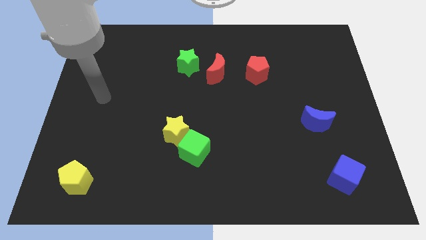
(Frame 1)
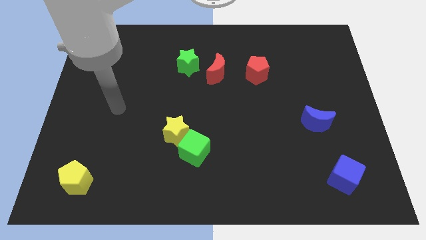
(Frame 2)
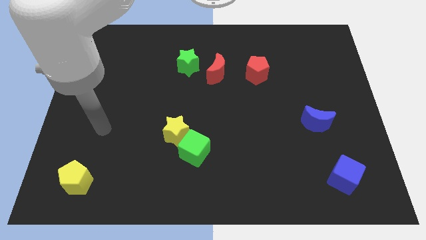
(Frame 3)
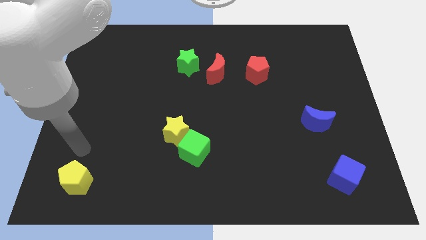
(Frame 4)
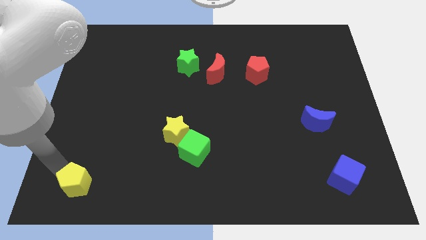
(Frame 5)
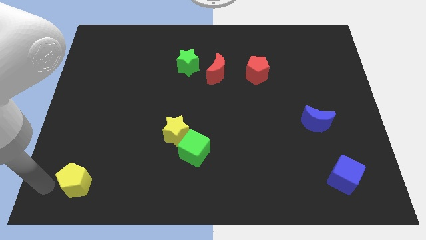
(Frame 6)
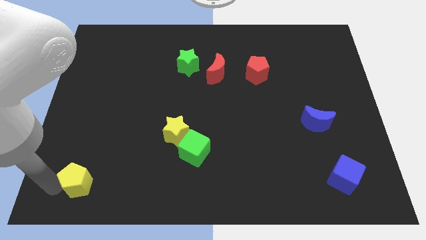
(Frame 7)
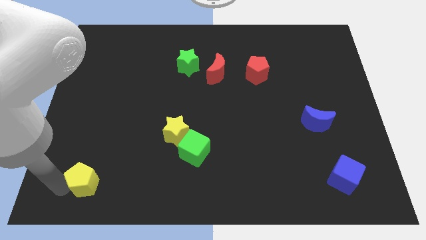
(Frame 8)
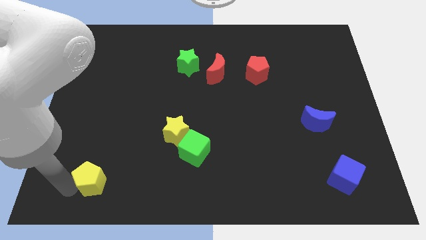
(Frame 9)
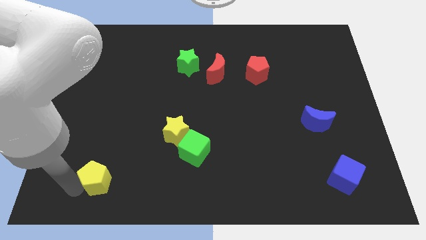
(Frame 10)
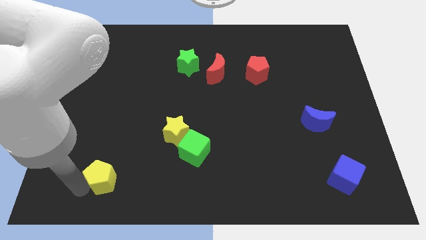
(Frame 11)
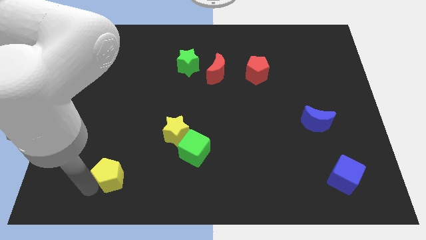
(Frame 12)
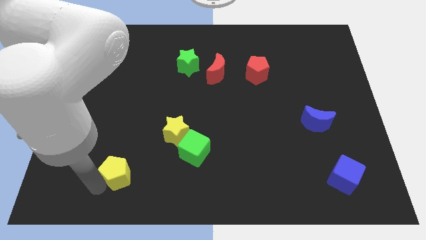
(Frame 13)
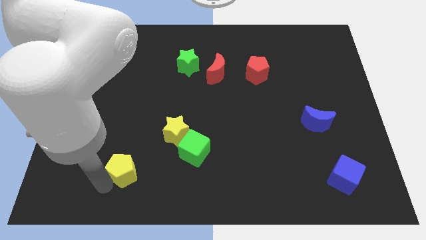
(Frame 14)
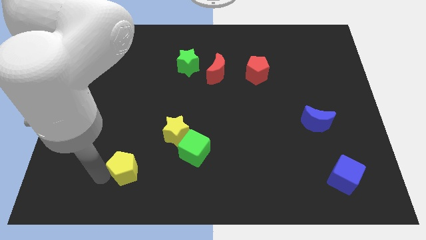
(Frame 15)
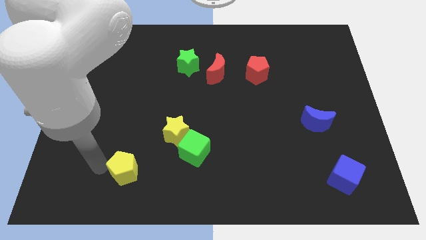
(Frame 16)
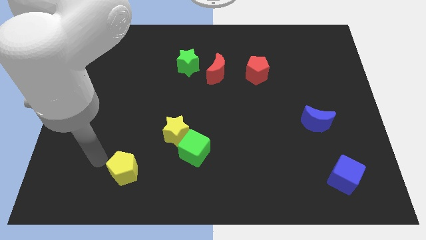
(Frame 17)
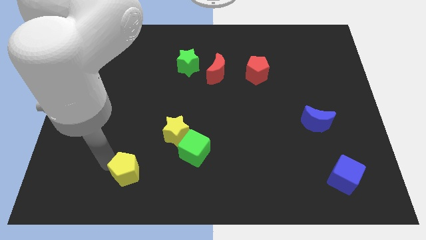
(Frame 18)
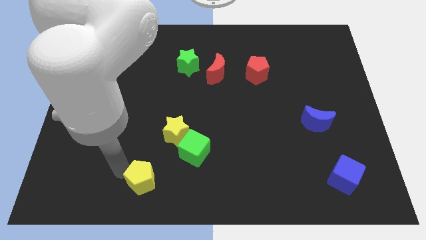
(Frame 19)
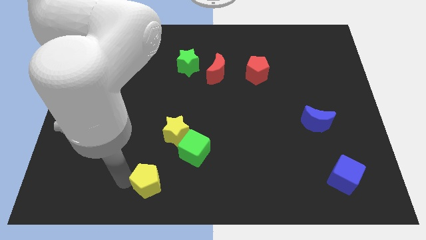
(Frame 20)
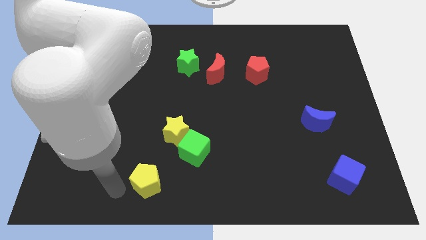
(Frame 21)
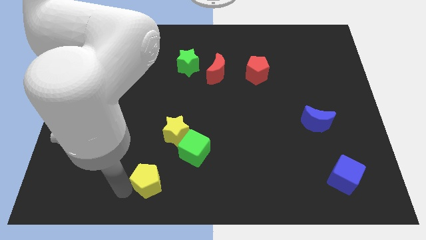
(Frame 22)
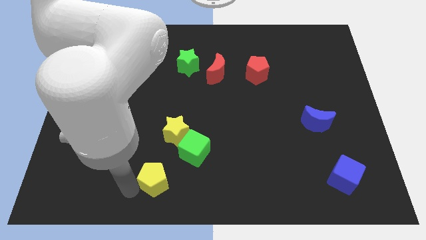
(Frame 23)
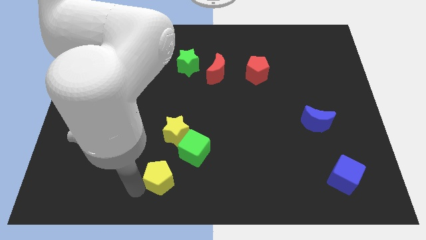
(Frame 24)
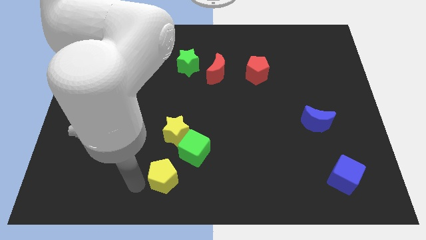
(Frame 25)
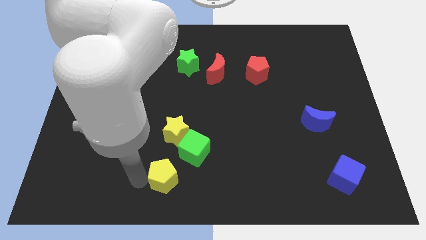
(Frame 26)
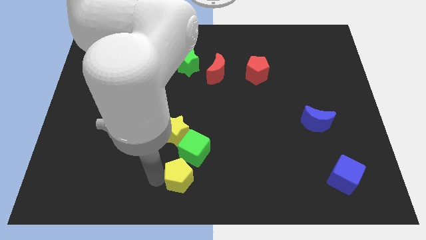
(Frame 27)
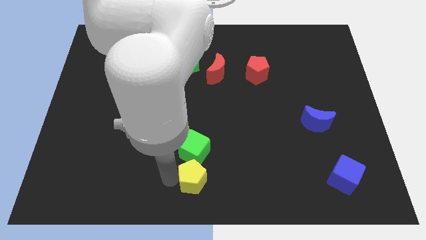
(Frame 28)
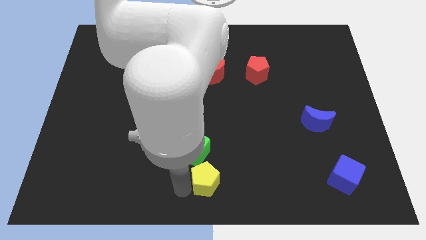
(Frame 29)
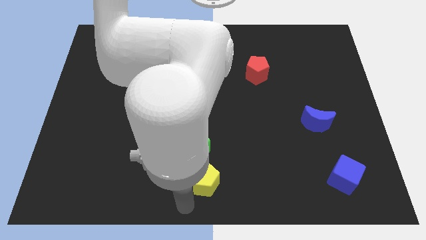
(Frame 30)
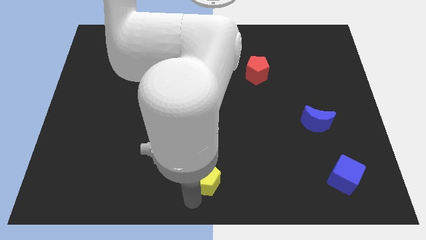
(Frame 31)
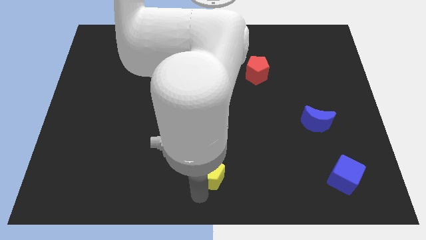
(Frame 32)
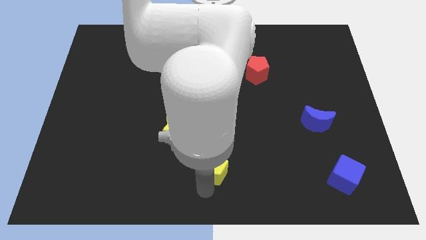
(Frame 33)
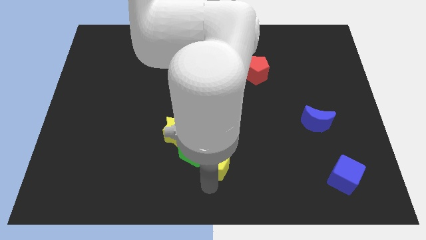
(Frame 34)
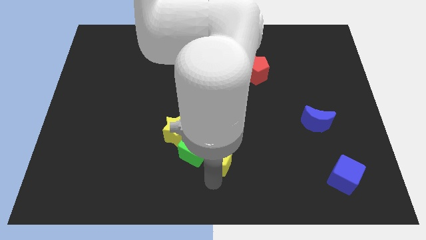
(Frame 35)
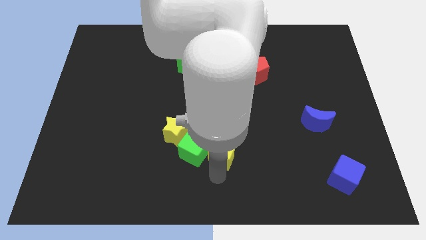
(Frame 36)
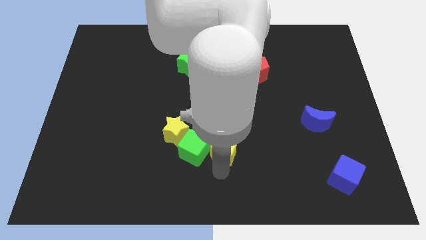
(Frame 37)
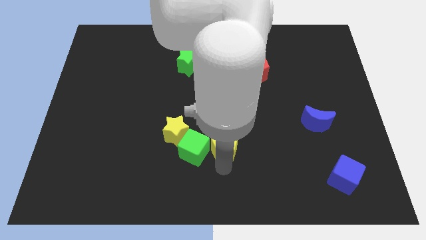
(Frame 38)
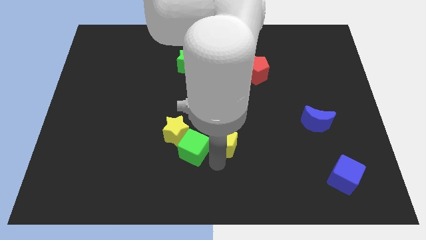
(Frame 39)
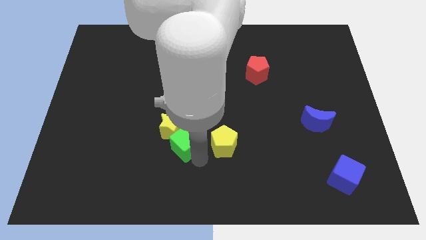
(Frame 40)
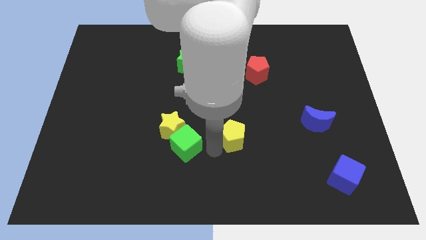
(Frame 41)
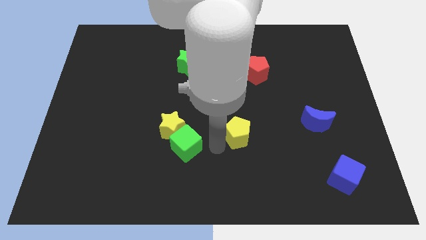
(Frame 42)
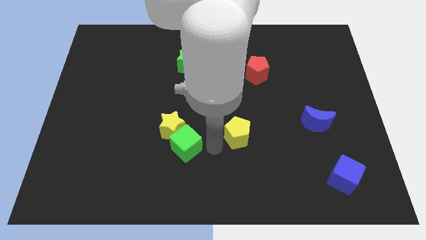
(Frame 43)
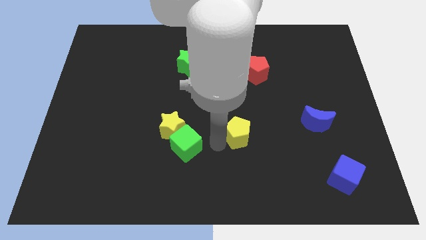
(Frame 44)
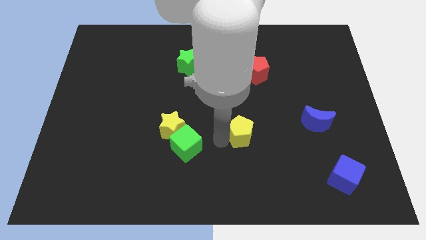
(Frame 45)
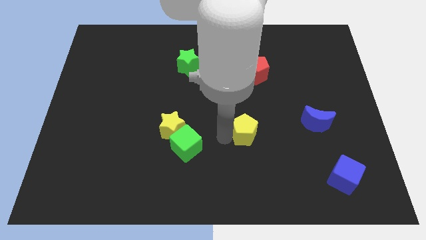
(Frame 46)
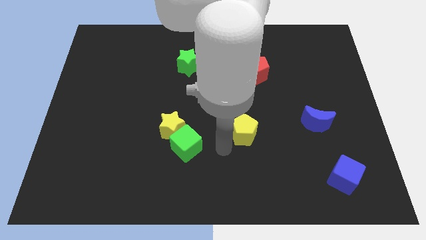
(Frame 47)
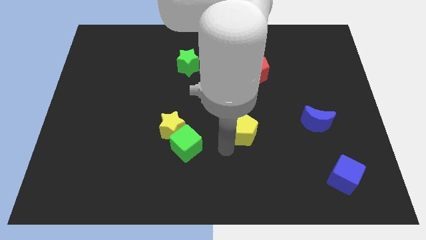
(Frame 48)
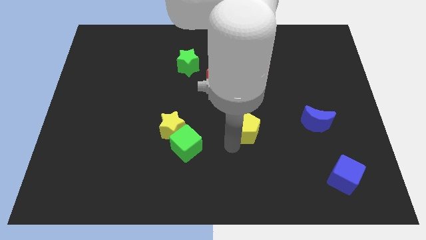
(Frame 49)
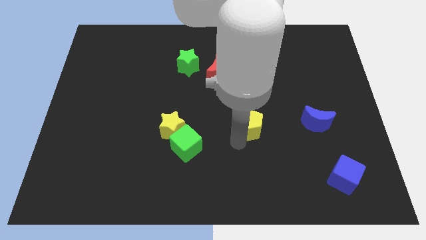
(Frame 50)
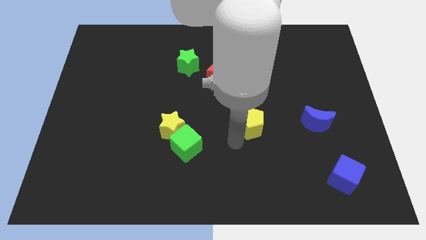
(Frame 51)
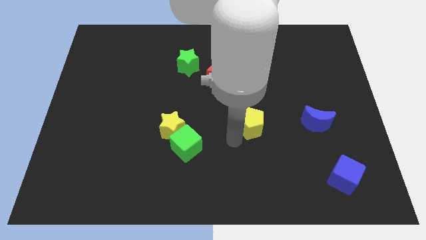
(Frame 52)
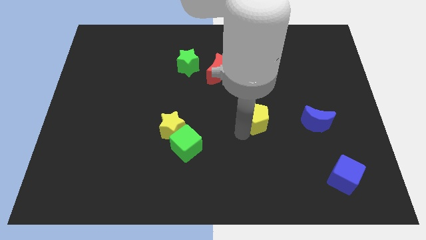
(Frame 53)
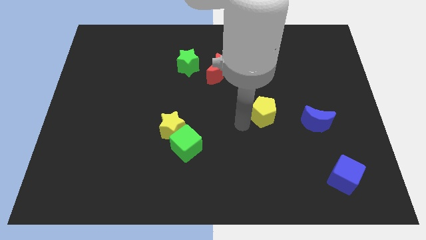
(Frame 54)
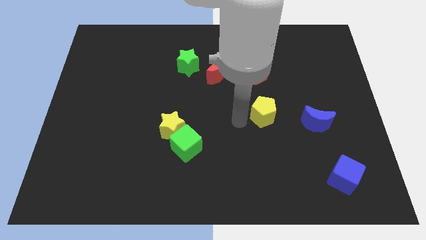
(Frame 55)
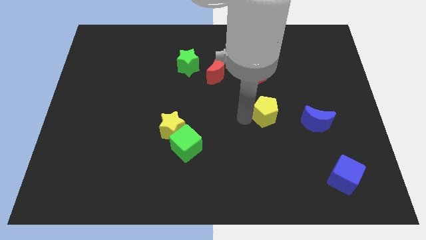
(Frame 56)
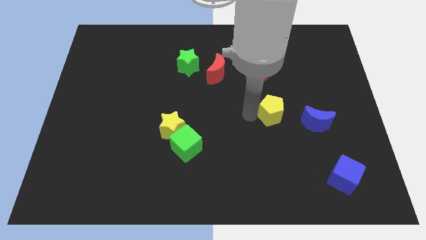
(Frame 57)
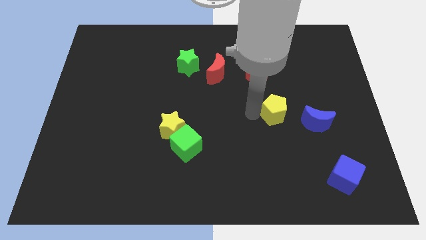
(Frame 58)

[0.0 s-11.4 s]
move the yellow pentagon to the top left of the blue moon

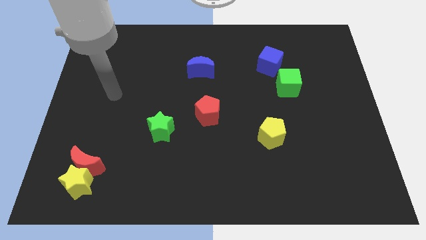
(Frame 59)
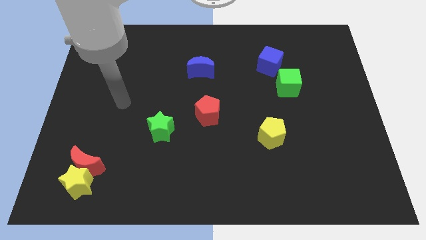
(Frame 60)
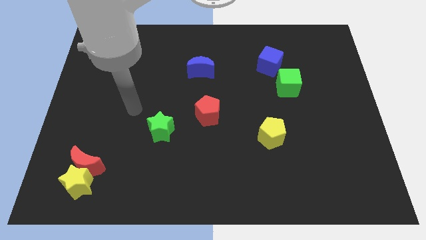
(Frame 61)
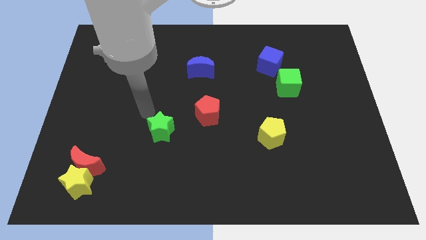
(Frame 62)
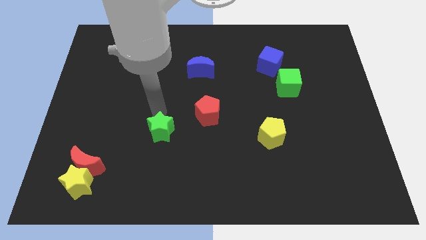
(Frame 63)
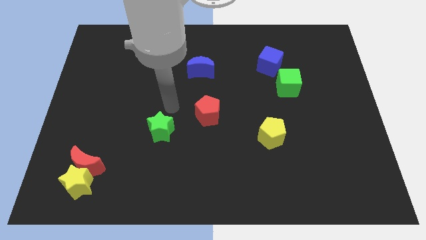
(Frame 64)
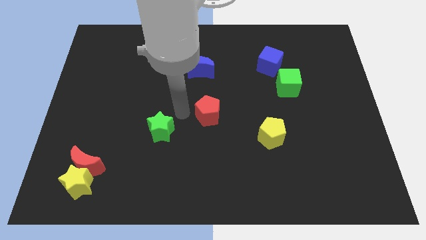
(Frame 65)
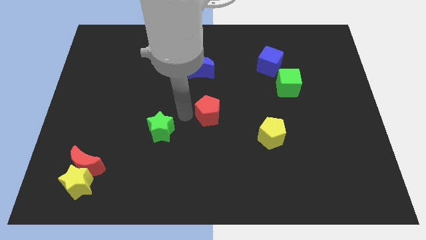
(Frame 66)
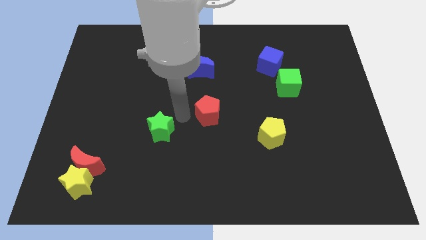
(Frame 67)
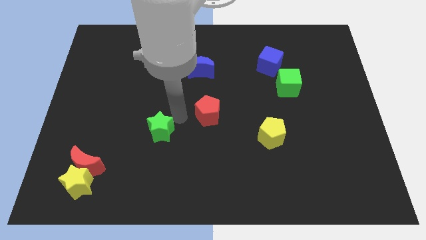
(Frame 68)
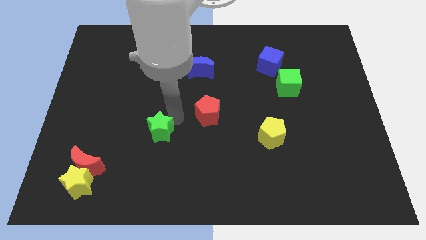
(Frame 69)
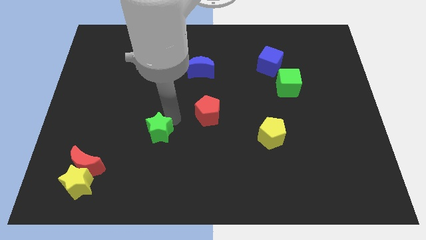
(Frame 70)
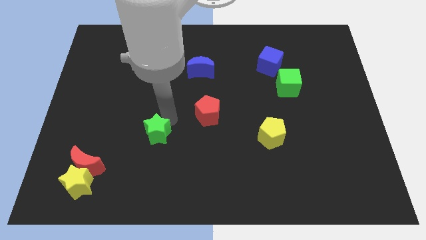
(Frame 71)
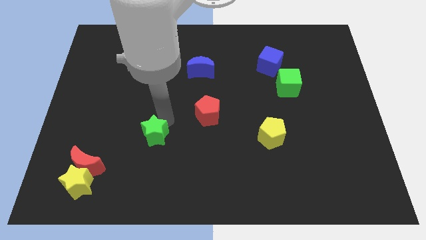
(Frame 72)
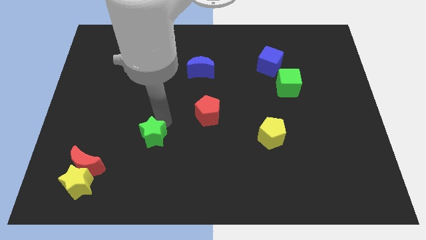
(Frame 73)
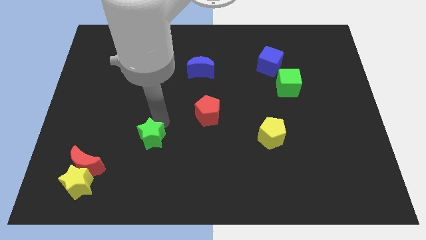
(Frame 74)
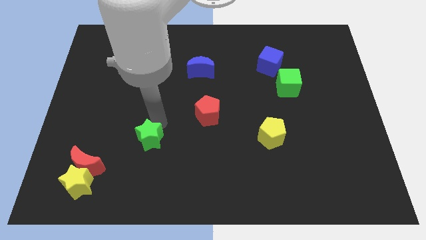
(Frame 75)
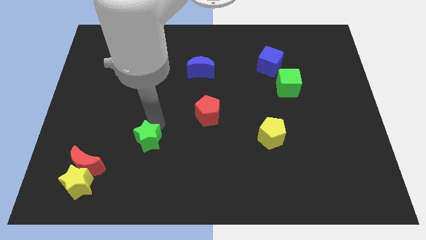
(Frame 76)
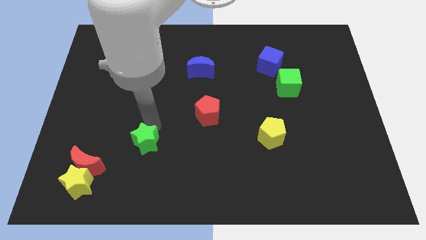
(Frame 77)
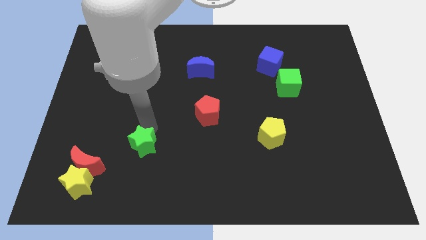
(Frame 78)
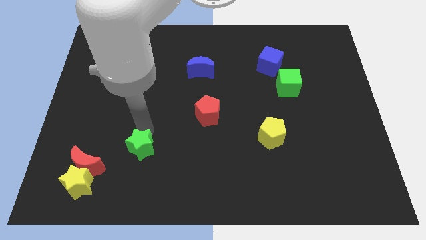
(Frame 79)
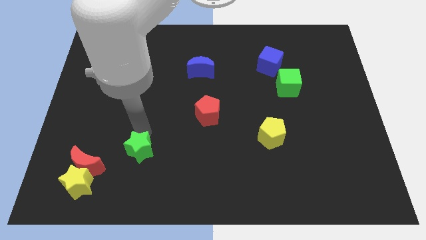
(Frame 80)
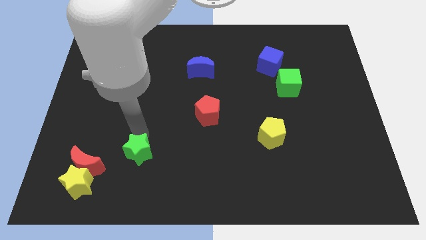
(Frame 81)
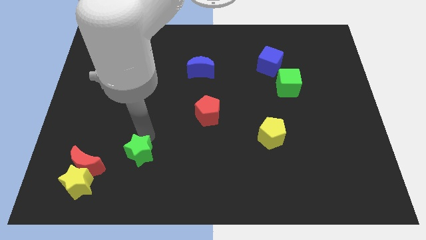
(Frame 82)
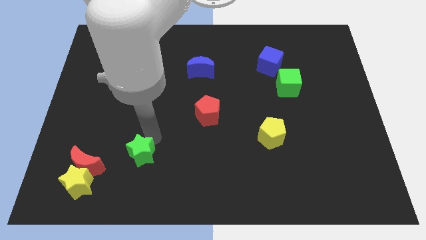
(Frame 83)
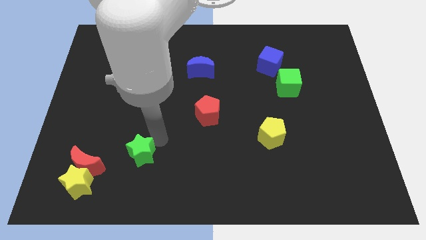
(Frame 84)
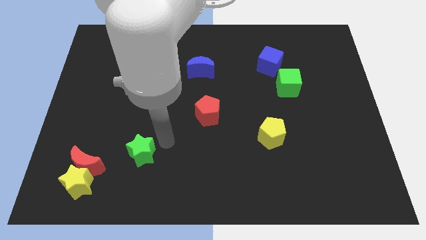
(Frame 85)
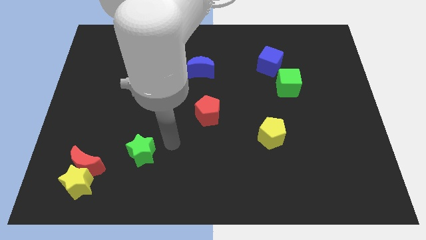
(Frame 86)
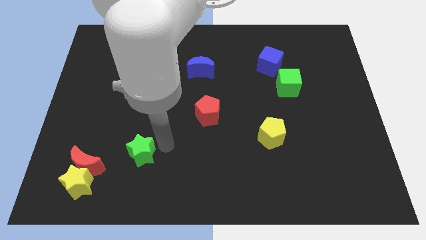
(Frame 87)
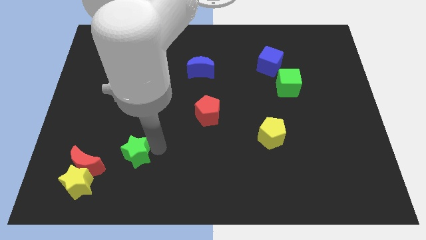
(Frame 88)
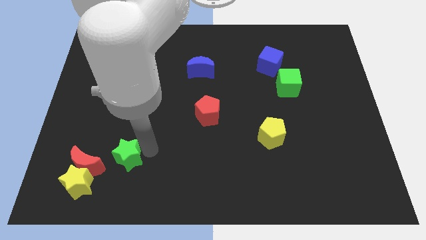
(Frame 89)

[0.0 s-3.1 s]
move the green star to the top right of the yellow star
